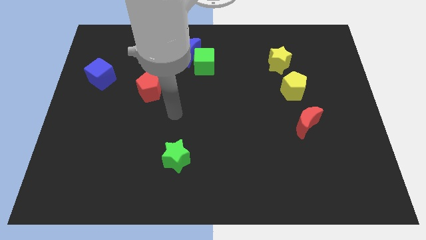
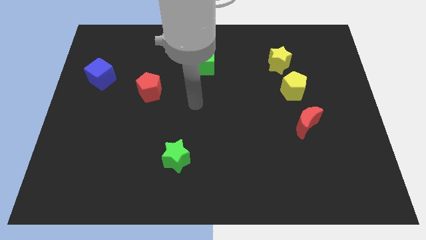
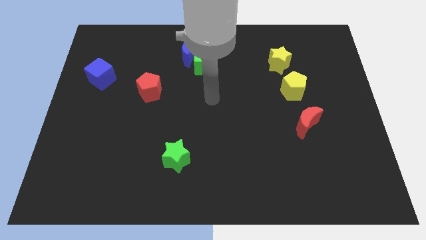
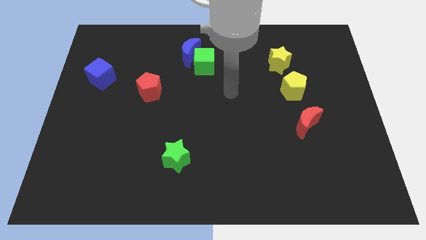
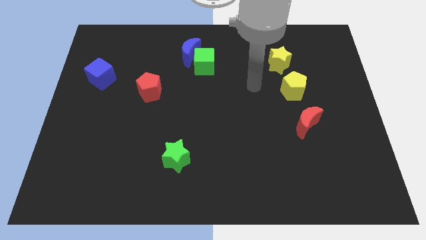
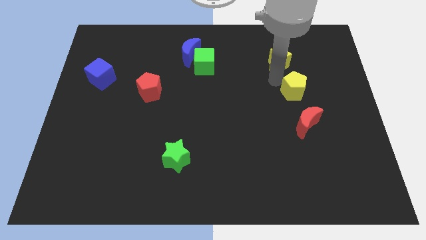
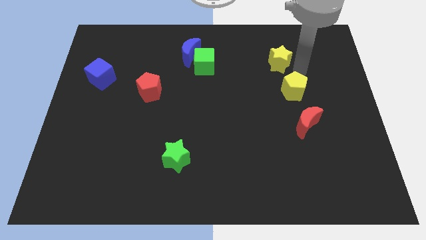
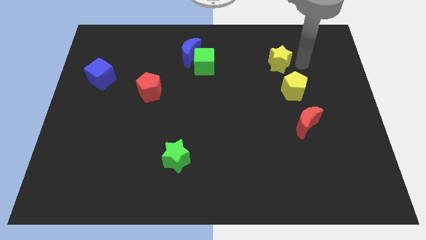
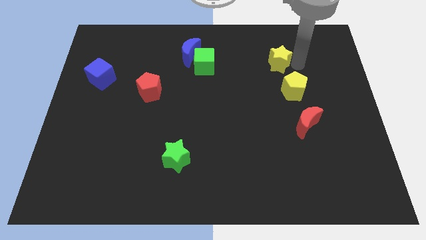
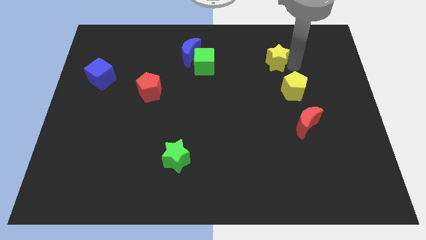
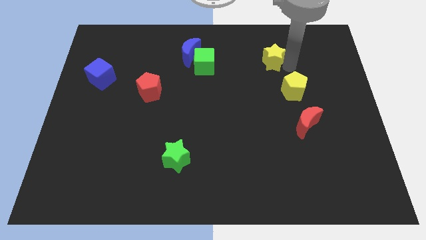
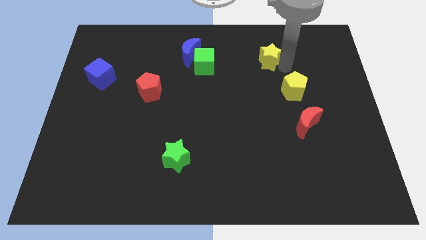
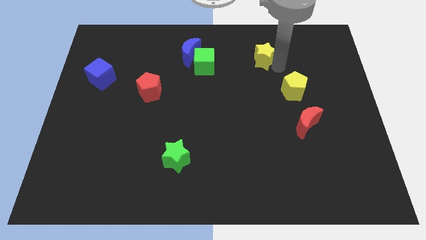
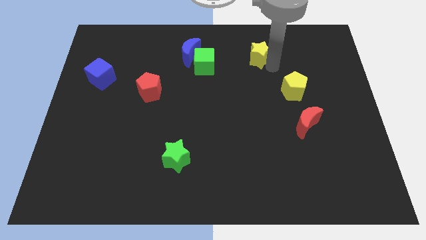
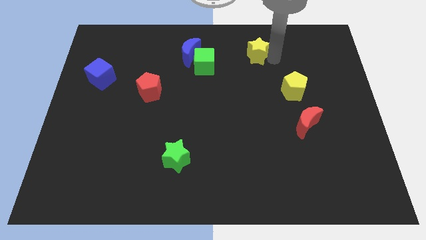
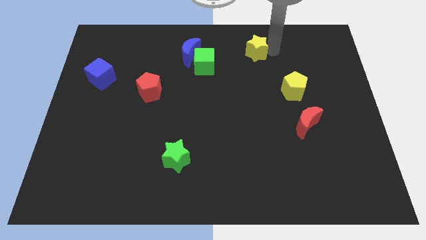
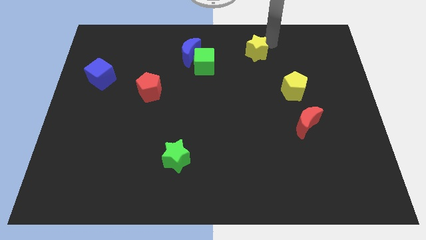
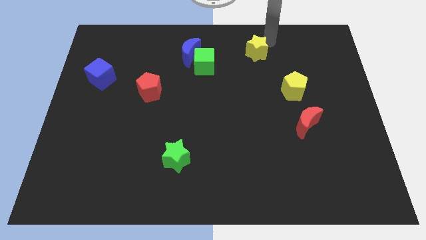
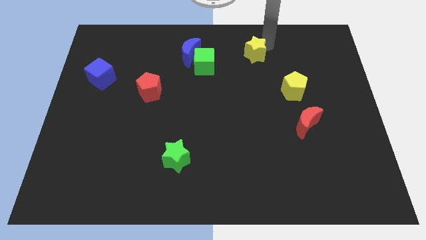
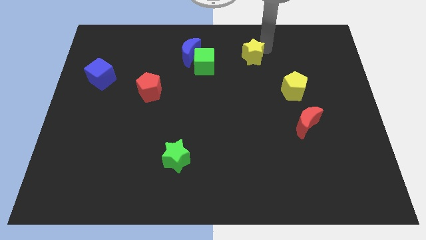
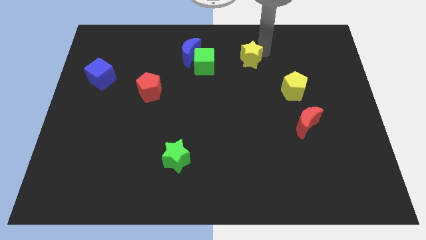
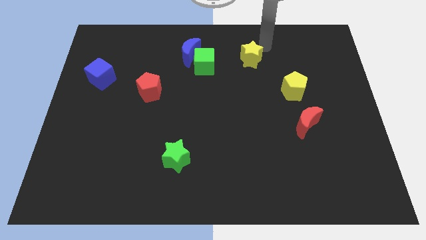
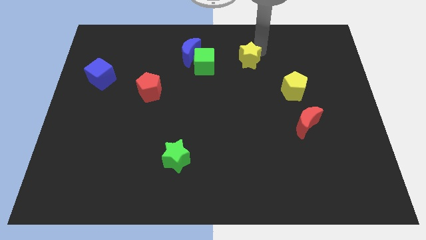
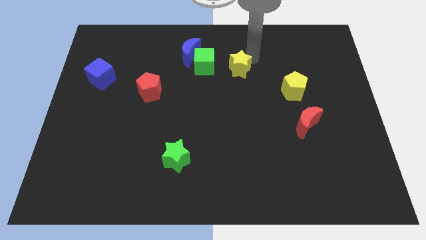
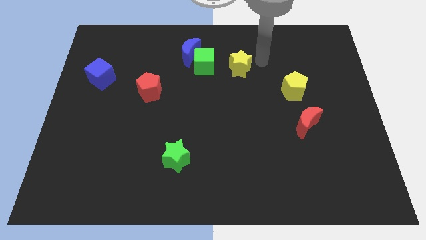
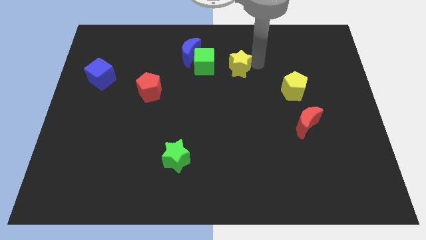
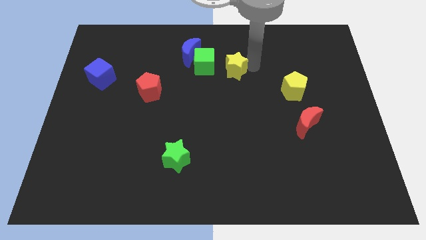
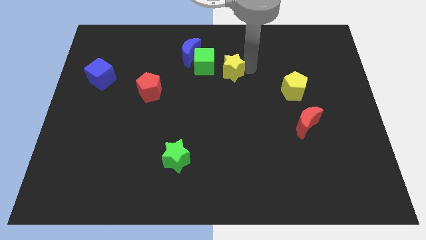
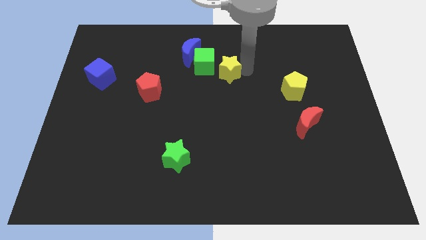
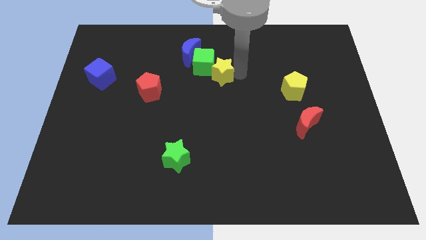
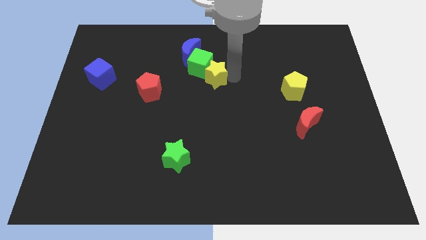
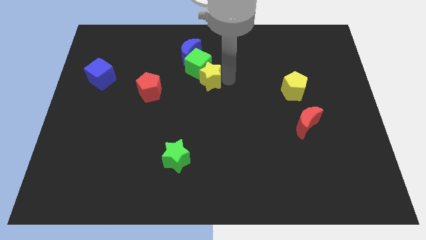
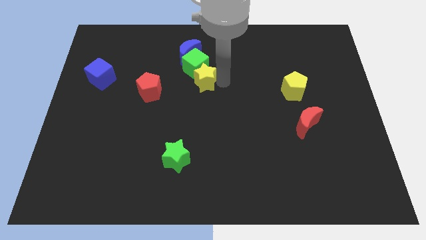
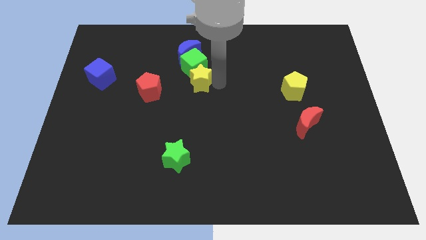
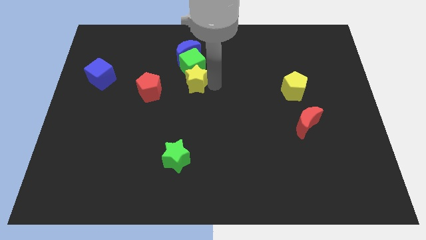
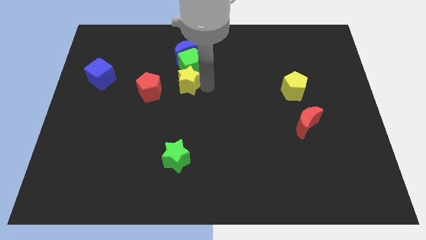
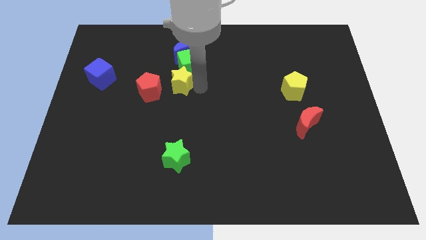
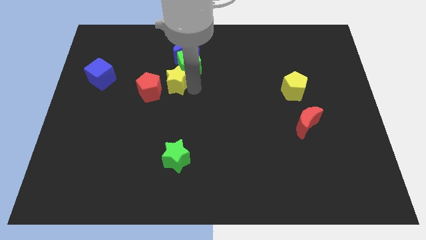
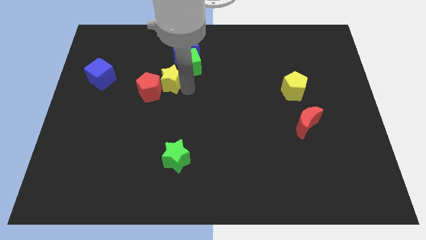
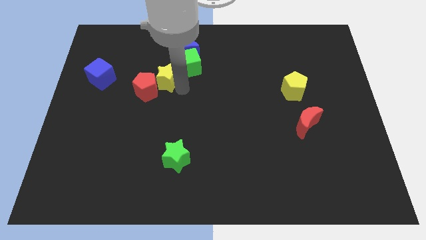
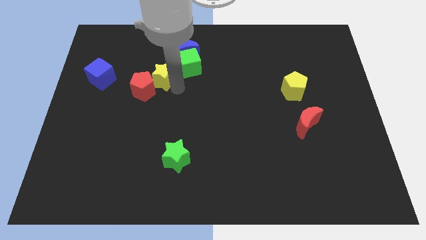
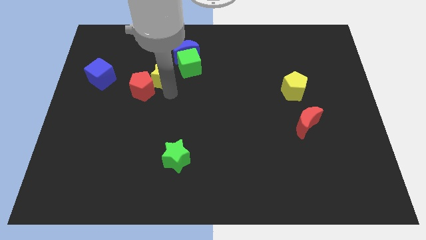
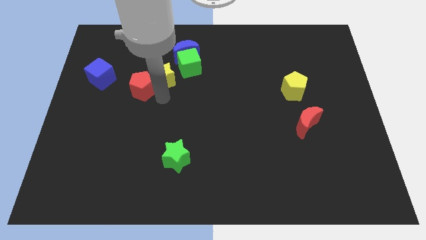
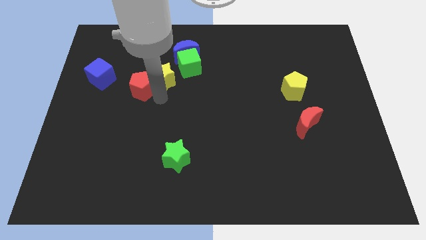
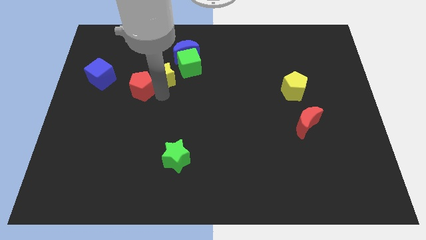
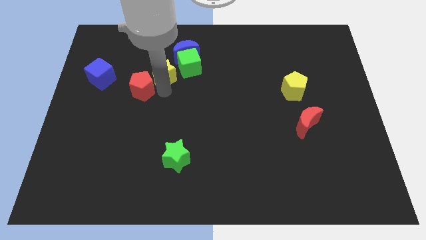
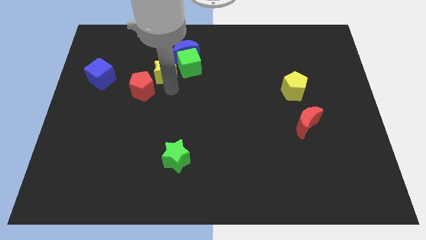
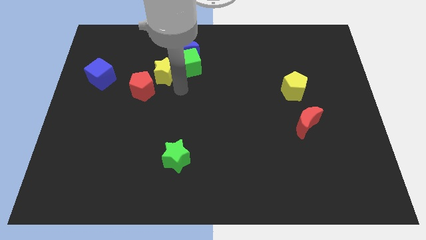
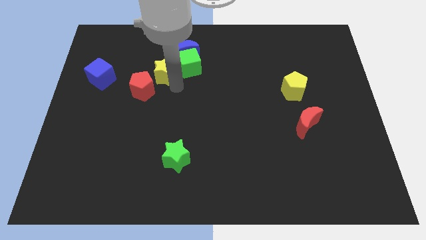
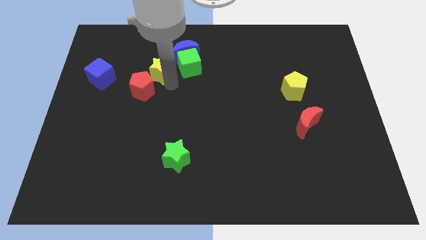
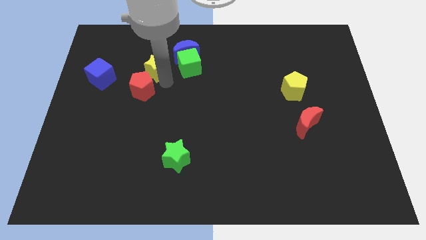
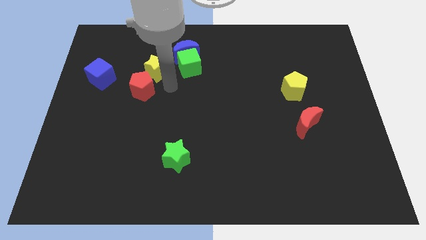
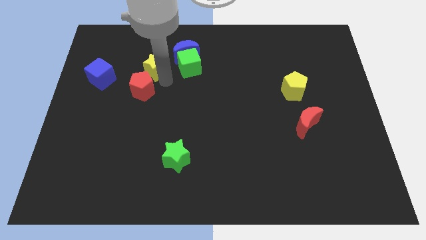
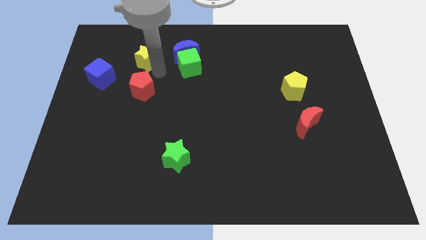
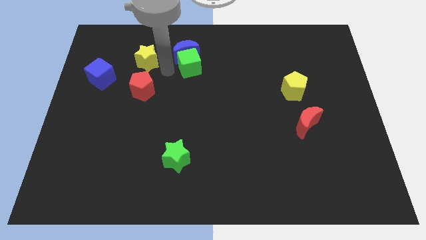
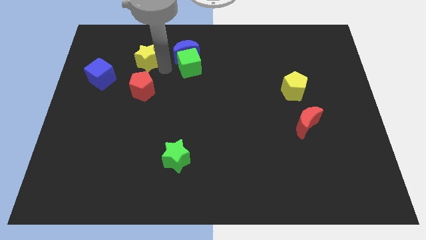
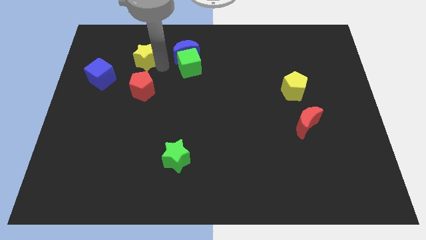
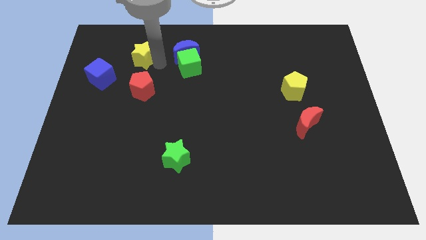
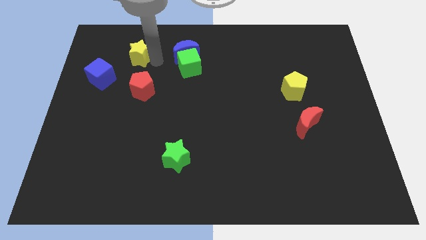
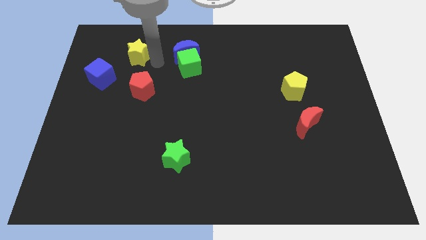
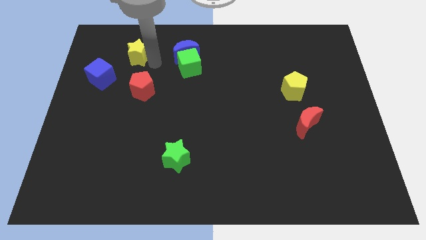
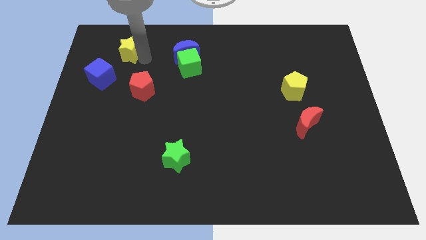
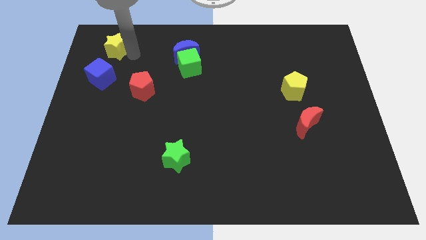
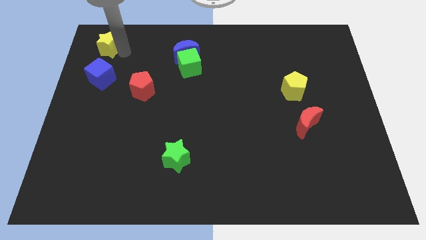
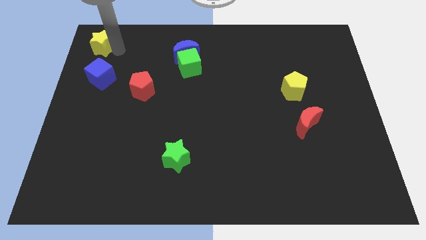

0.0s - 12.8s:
move the yellow star to the upper left corner

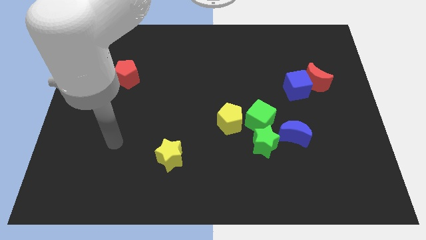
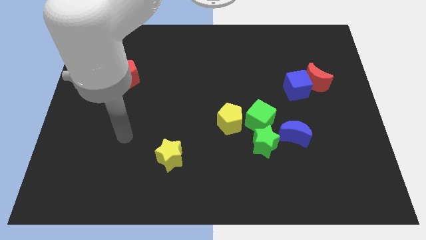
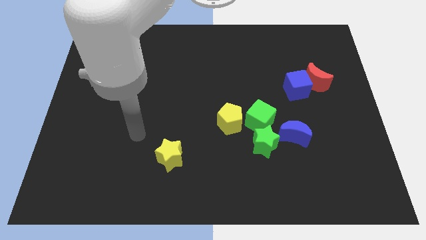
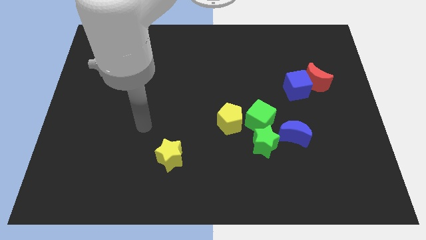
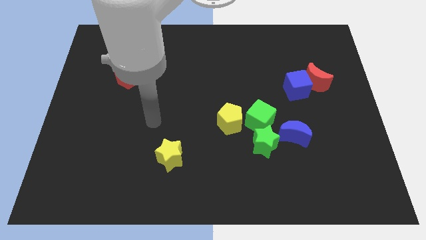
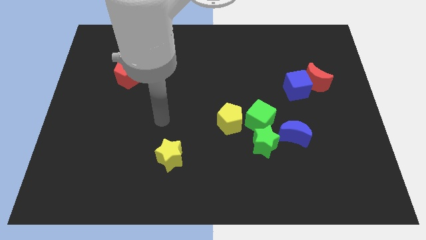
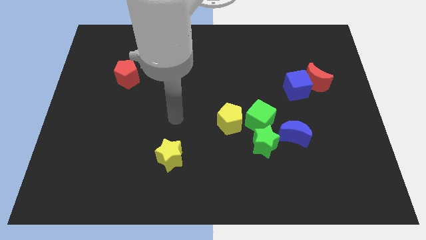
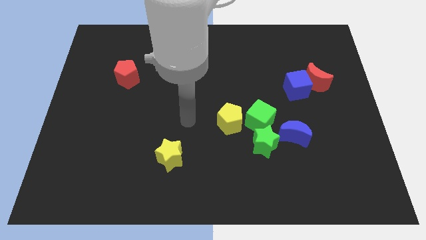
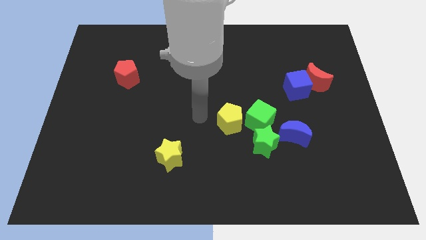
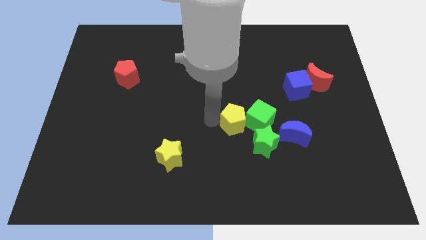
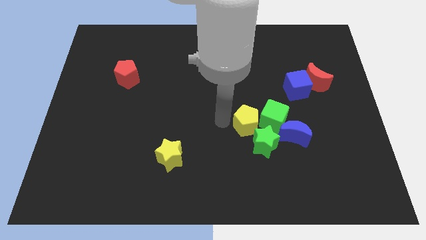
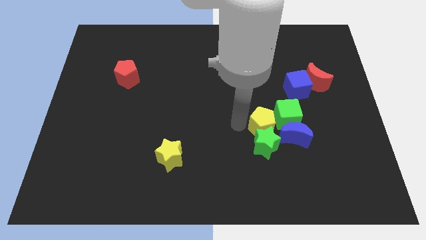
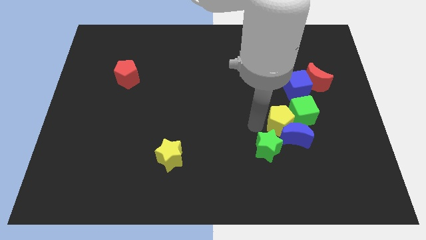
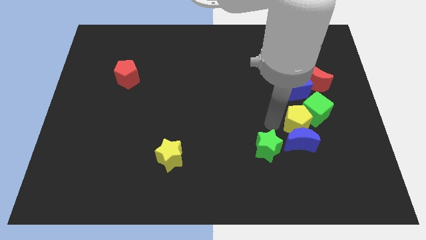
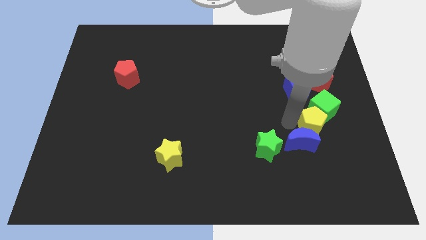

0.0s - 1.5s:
push the green cube to the right side of the board
